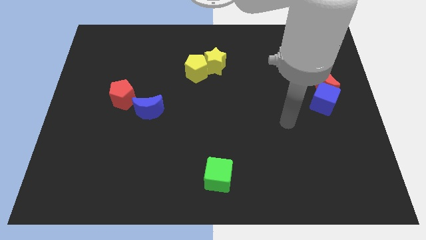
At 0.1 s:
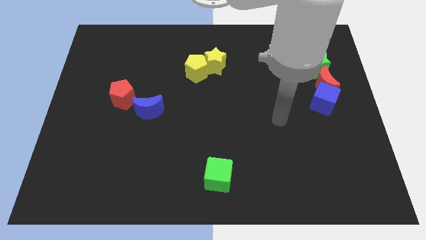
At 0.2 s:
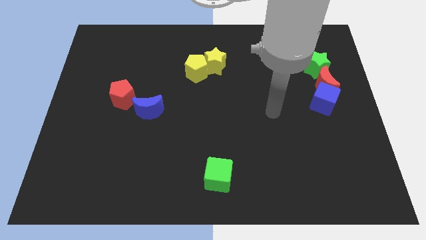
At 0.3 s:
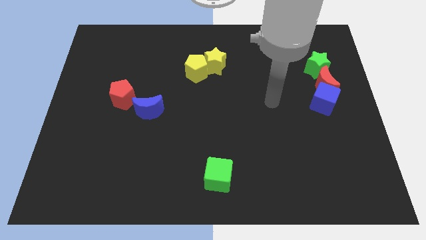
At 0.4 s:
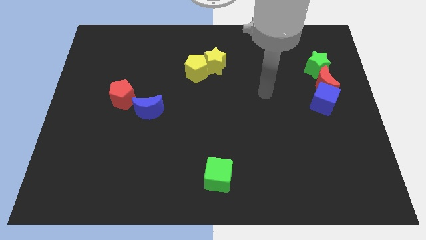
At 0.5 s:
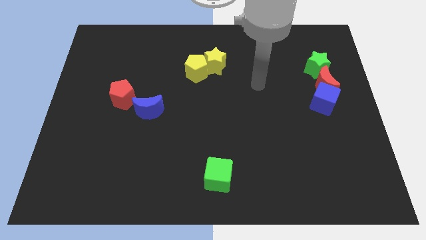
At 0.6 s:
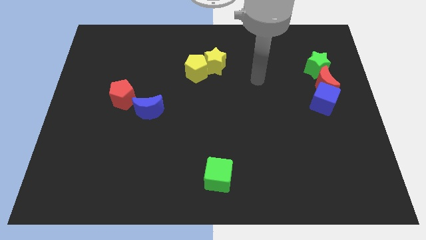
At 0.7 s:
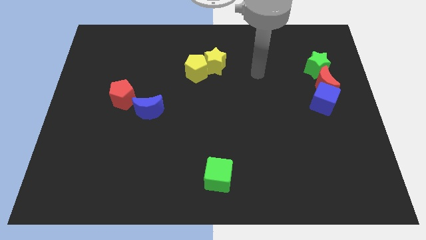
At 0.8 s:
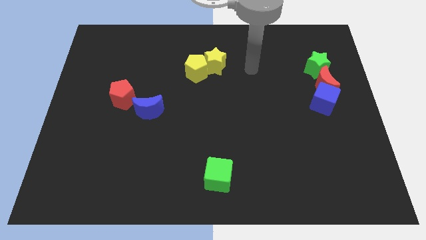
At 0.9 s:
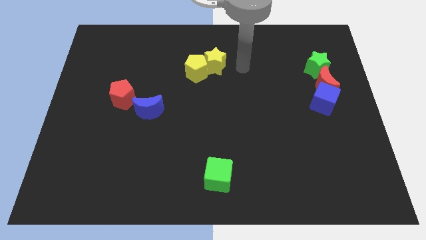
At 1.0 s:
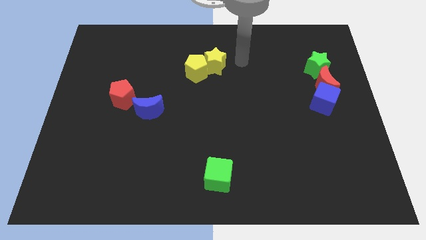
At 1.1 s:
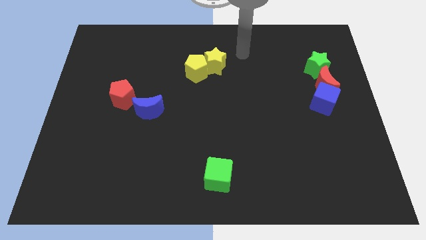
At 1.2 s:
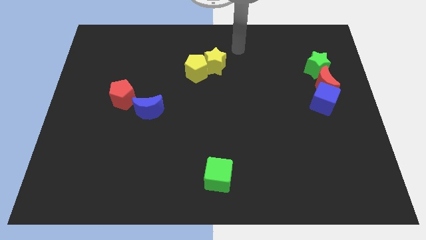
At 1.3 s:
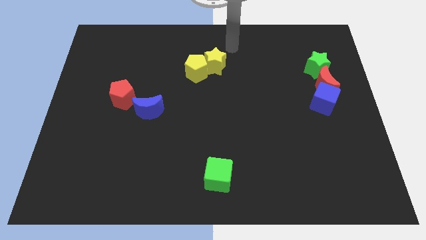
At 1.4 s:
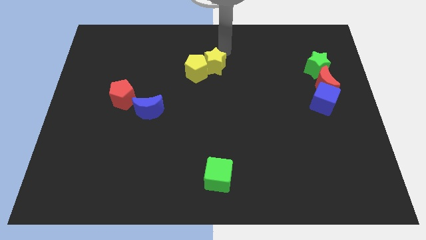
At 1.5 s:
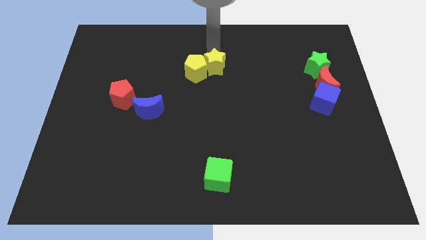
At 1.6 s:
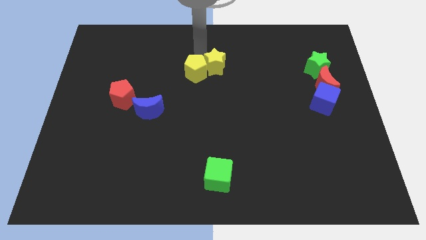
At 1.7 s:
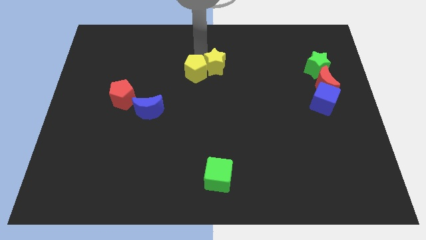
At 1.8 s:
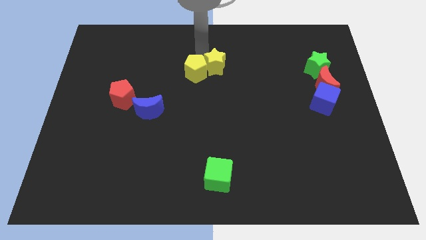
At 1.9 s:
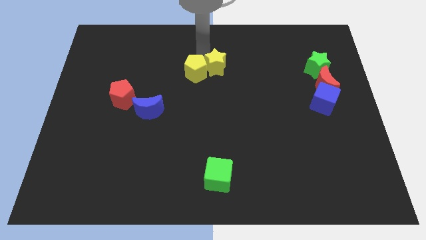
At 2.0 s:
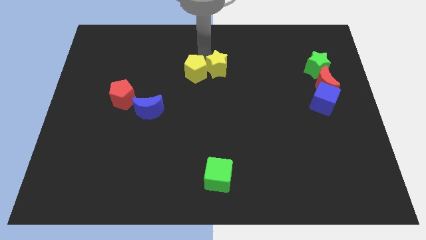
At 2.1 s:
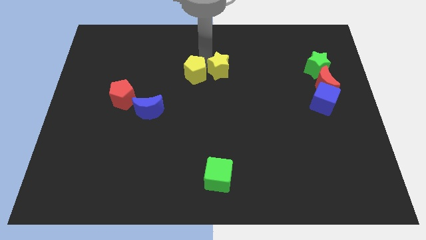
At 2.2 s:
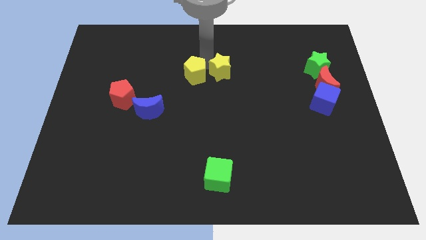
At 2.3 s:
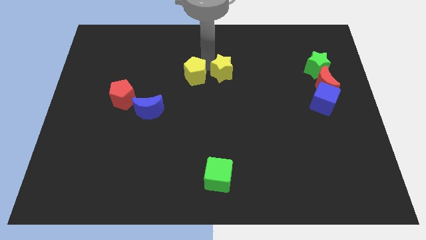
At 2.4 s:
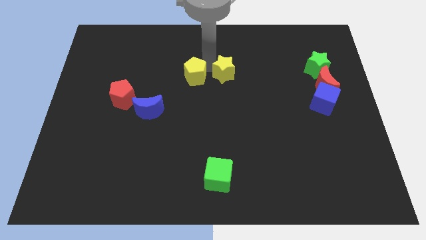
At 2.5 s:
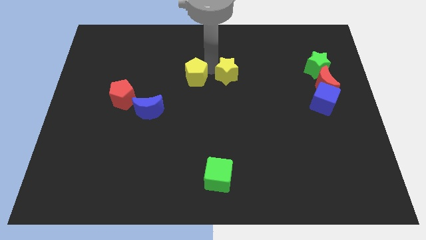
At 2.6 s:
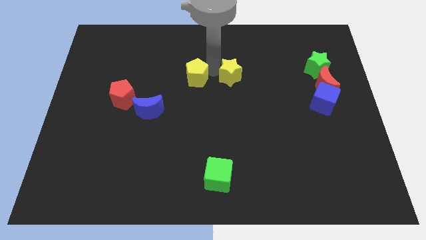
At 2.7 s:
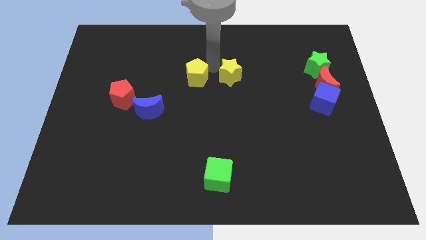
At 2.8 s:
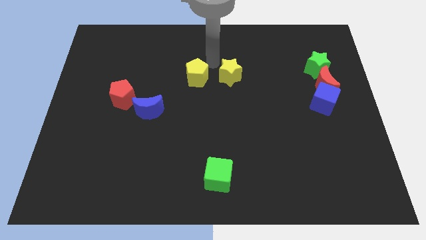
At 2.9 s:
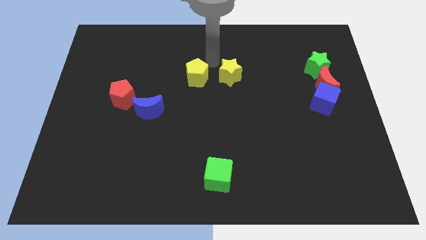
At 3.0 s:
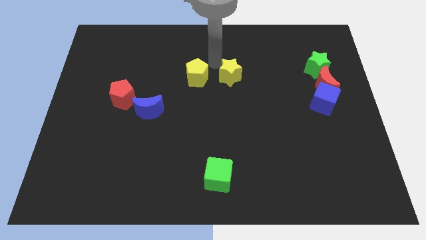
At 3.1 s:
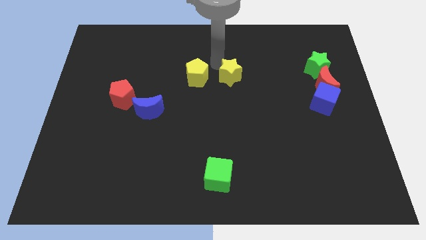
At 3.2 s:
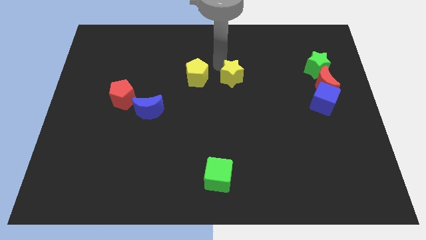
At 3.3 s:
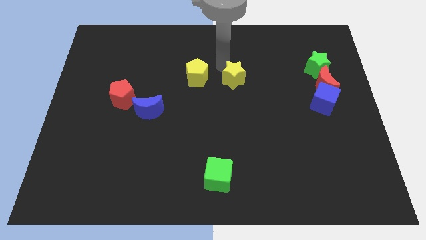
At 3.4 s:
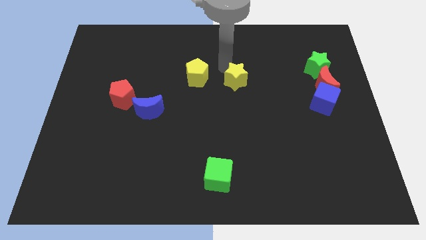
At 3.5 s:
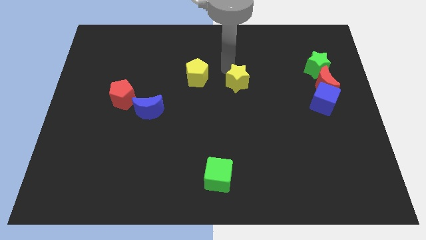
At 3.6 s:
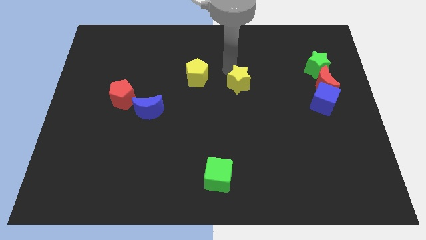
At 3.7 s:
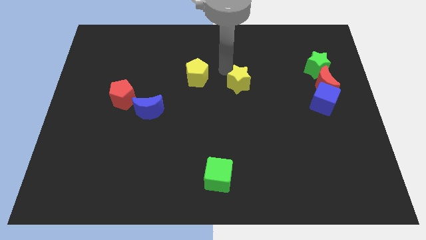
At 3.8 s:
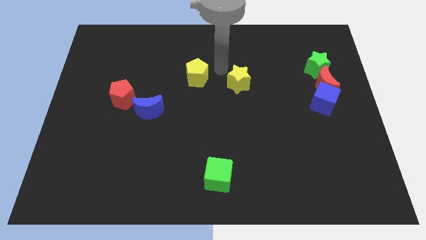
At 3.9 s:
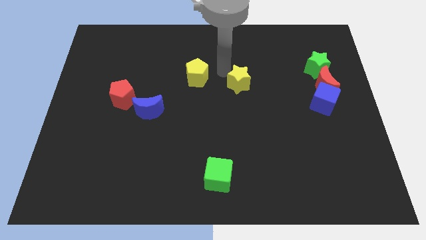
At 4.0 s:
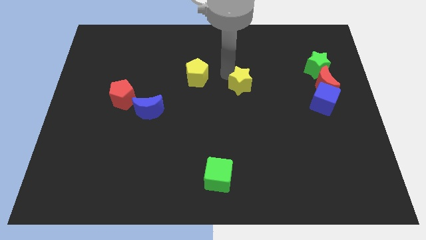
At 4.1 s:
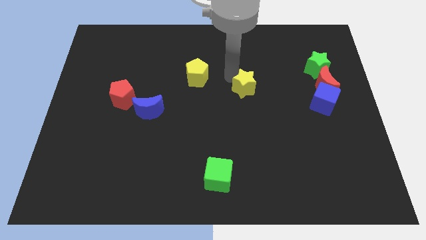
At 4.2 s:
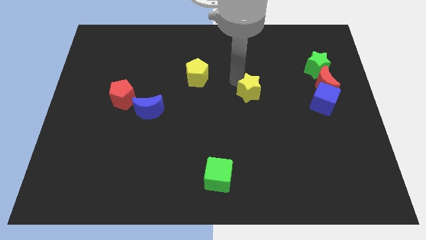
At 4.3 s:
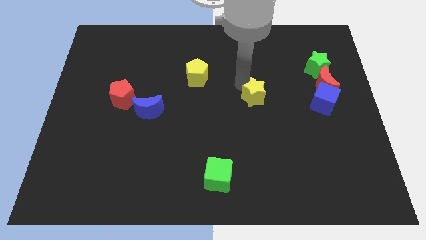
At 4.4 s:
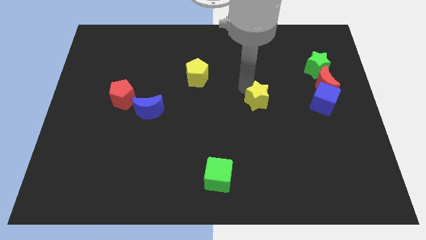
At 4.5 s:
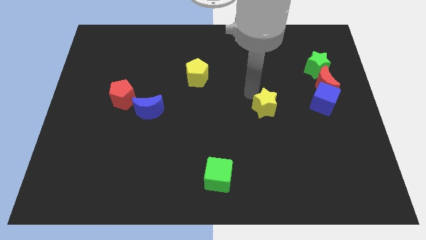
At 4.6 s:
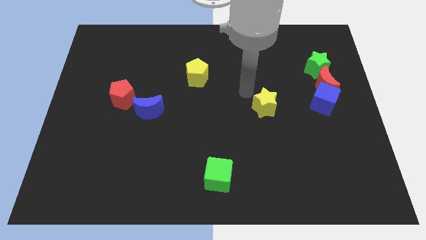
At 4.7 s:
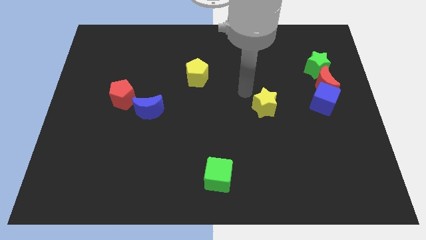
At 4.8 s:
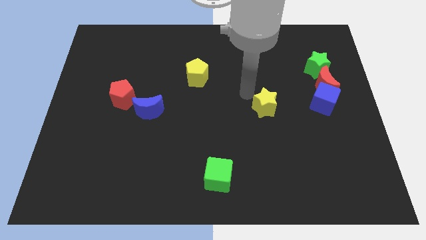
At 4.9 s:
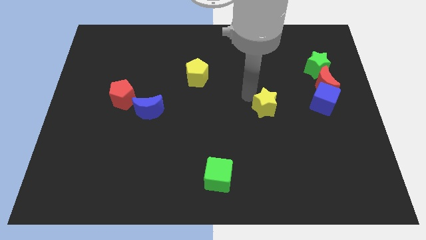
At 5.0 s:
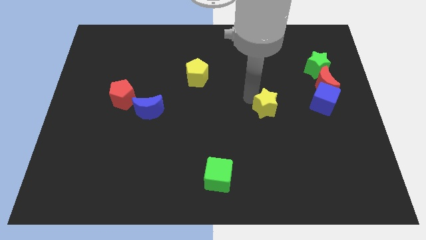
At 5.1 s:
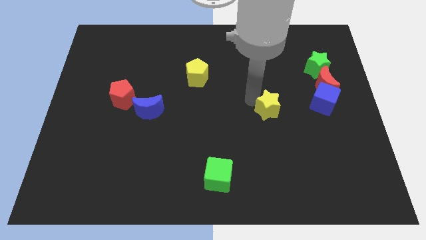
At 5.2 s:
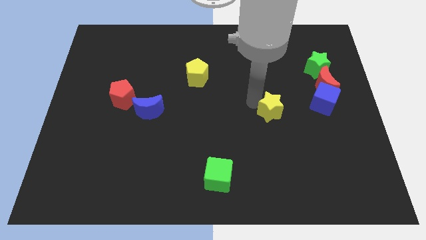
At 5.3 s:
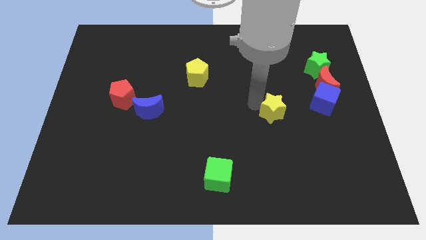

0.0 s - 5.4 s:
move the yellow star down and to the right diagonally

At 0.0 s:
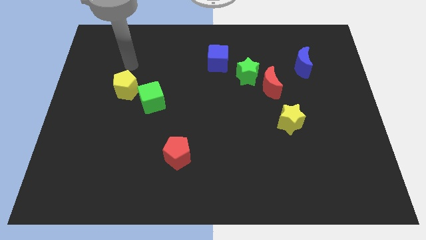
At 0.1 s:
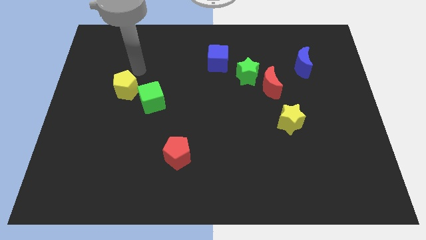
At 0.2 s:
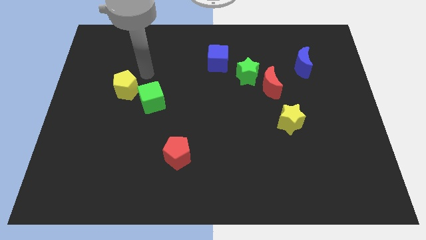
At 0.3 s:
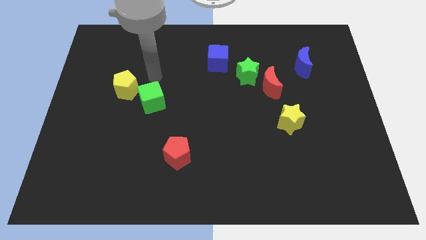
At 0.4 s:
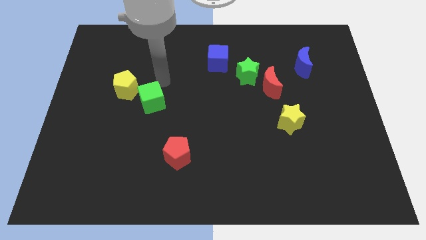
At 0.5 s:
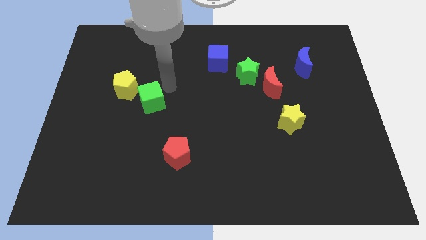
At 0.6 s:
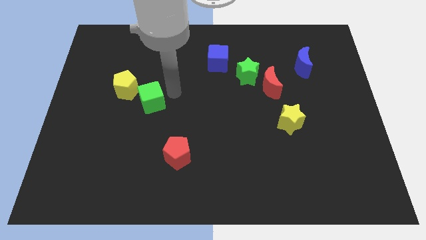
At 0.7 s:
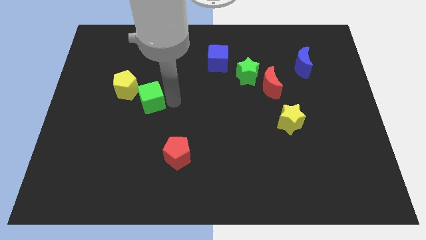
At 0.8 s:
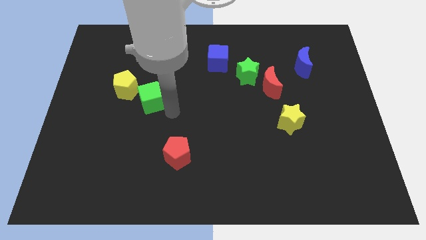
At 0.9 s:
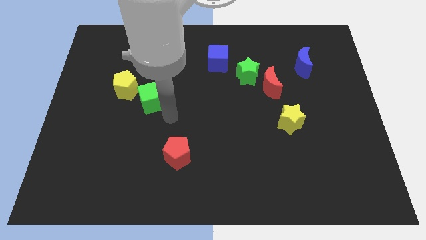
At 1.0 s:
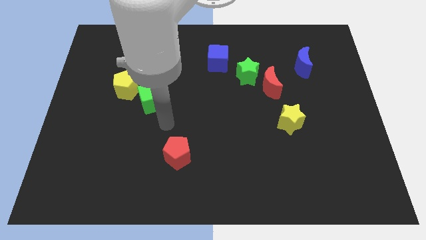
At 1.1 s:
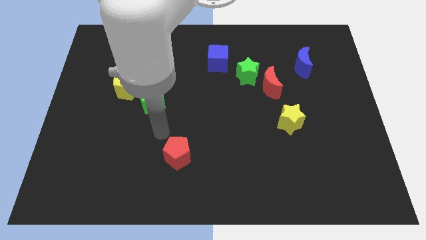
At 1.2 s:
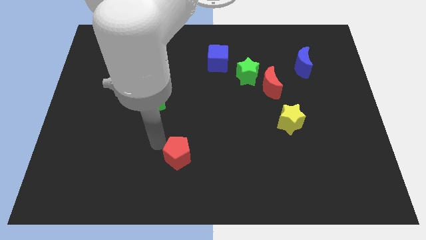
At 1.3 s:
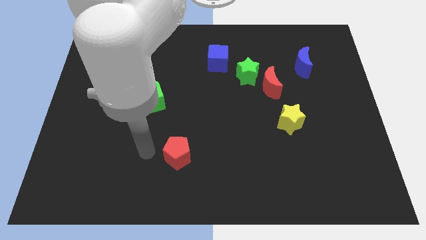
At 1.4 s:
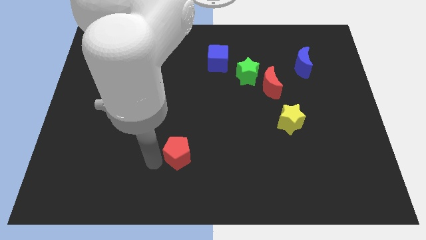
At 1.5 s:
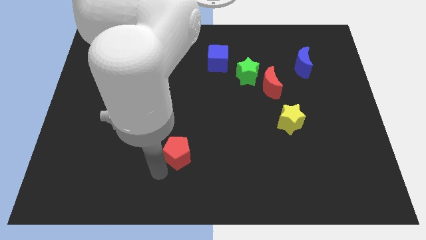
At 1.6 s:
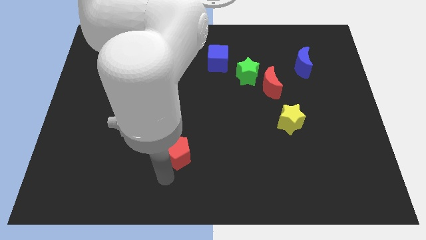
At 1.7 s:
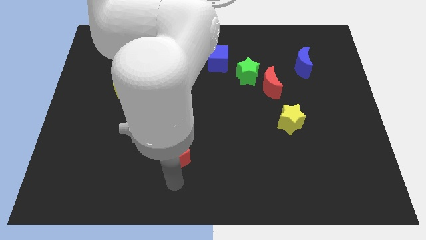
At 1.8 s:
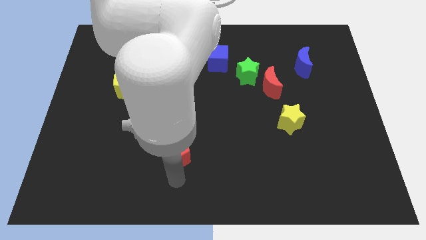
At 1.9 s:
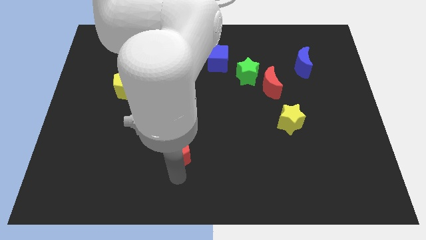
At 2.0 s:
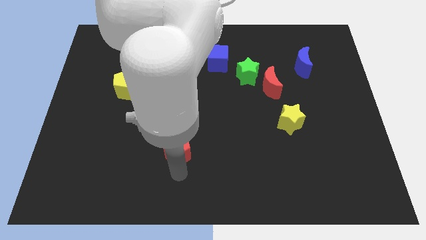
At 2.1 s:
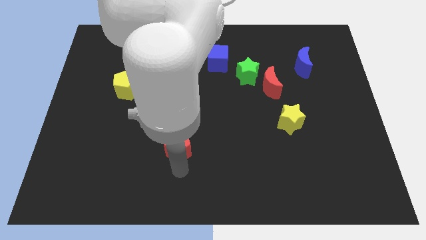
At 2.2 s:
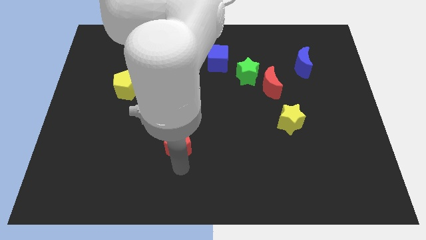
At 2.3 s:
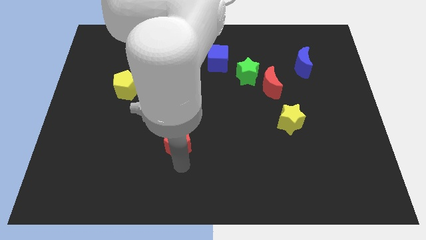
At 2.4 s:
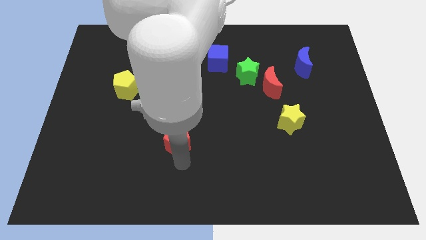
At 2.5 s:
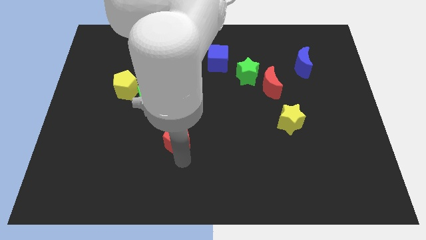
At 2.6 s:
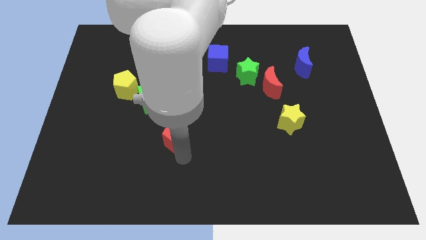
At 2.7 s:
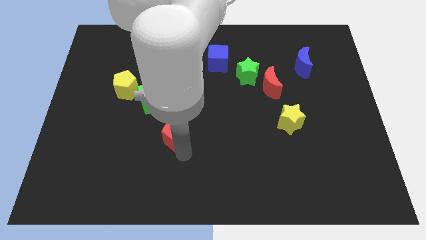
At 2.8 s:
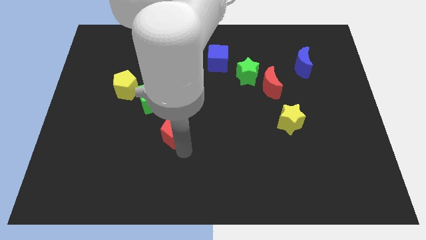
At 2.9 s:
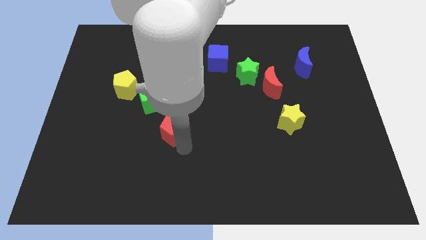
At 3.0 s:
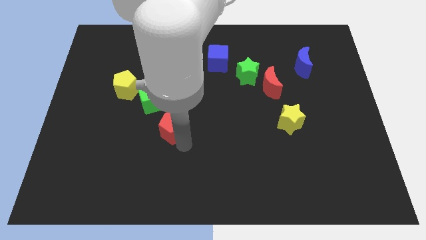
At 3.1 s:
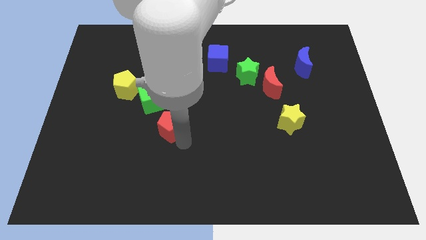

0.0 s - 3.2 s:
push the red pentagon a little up
